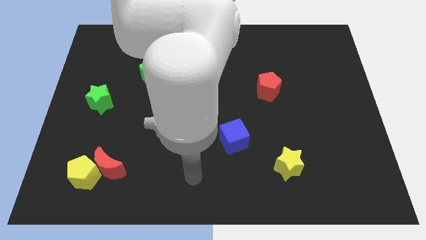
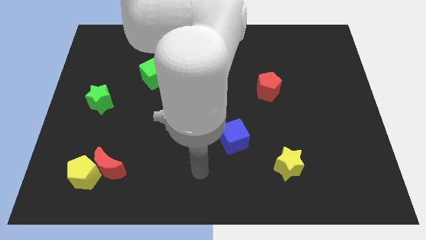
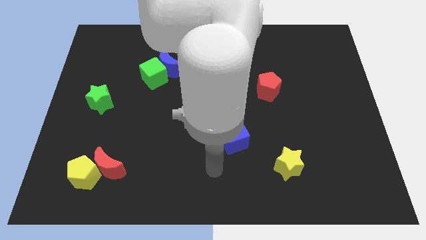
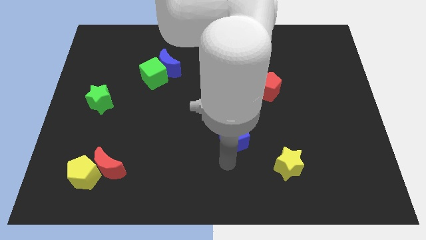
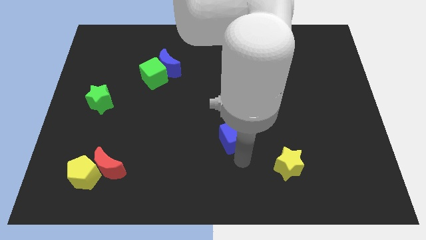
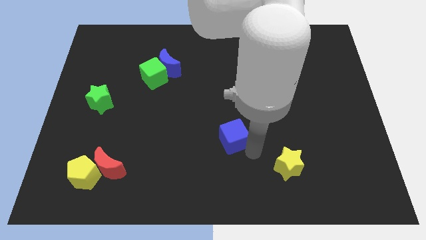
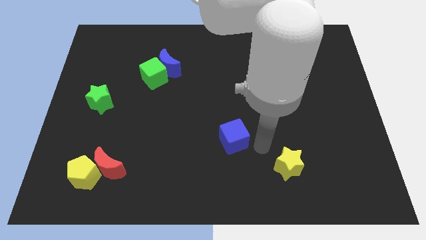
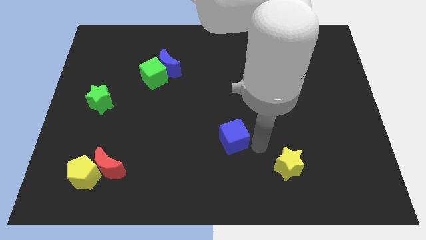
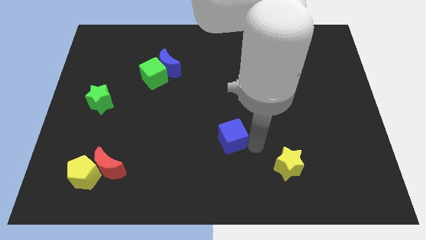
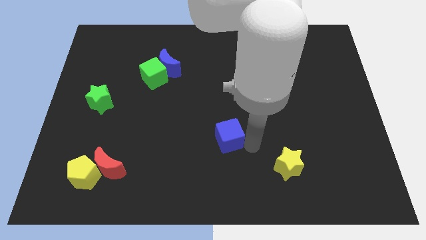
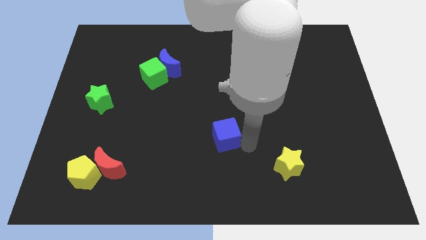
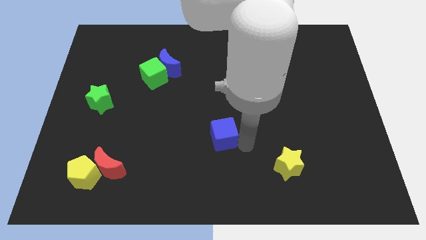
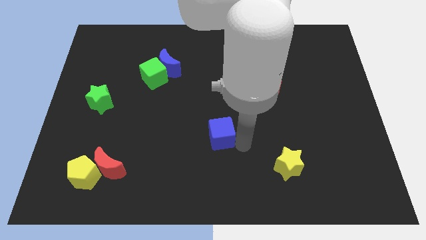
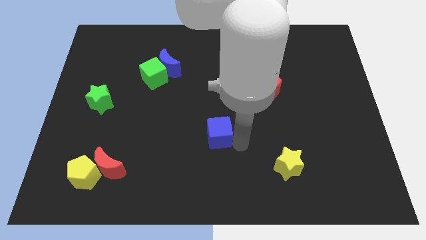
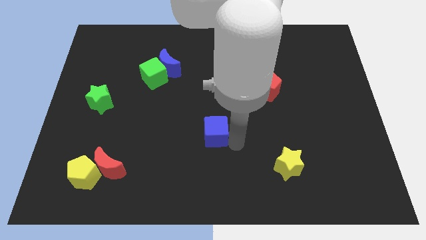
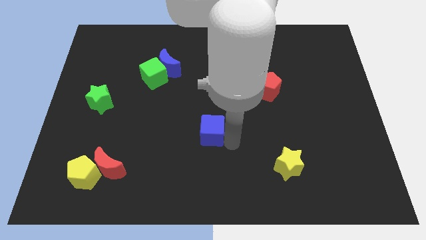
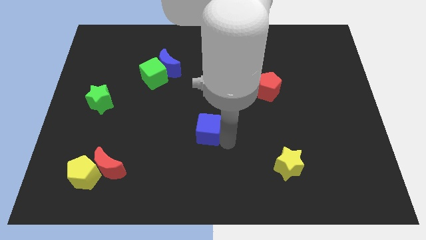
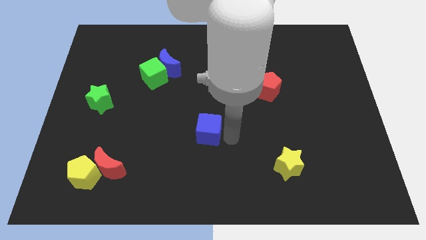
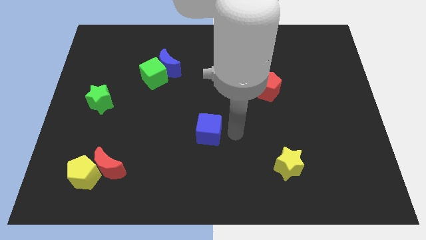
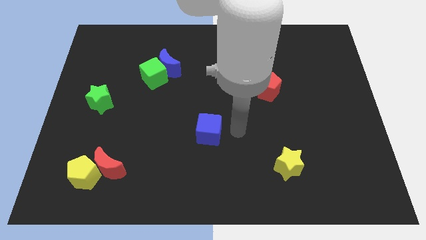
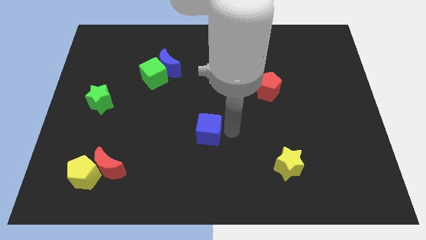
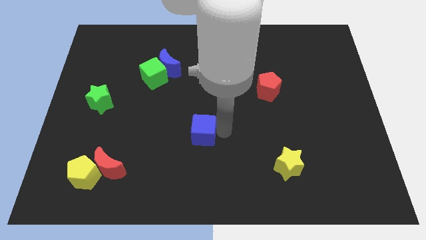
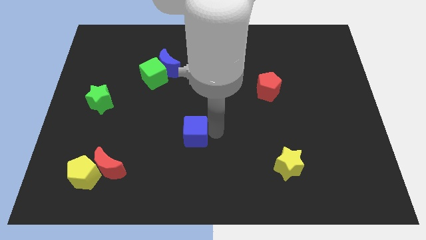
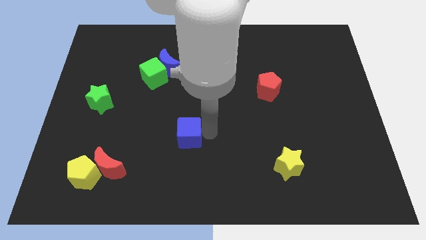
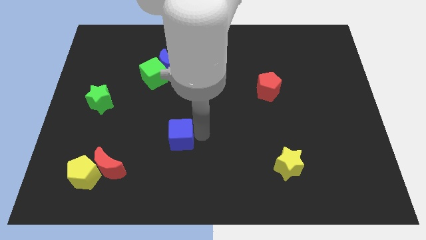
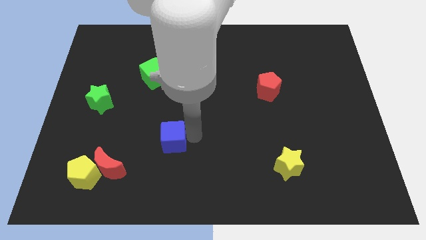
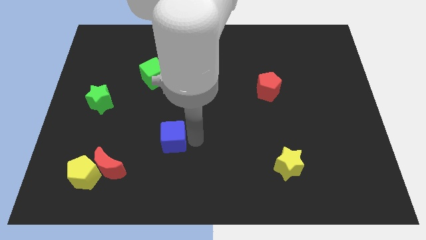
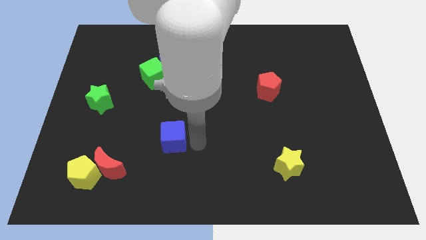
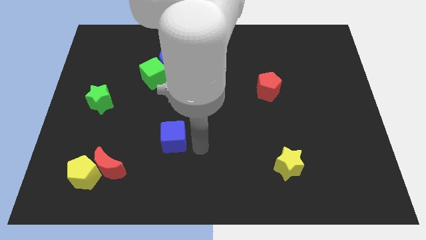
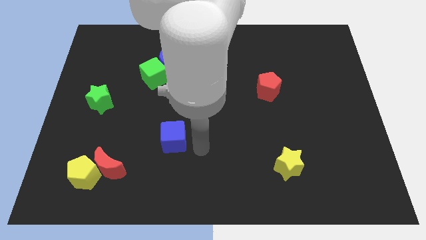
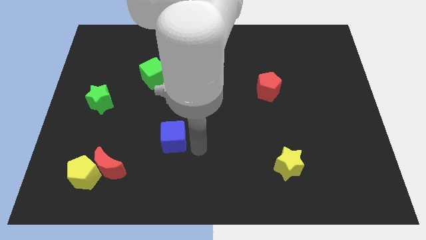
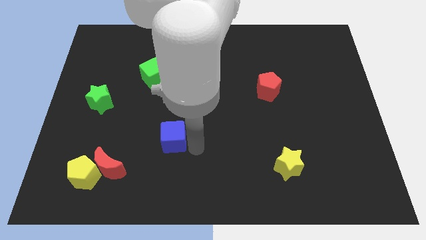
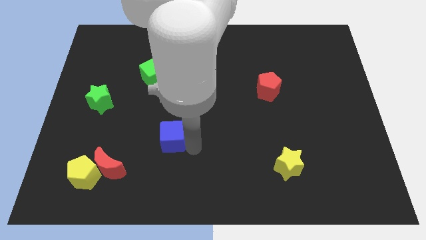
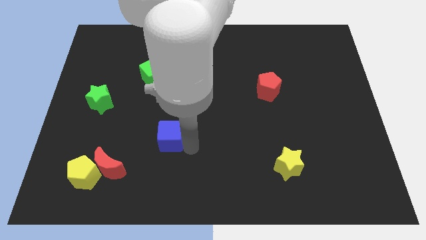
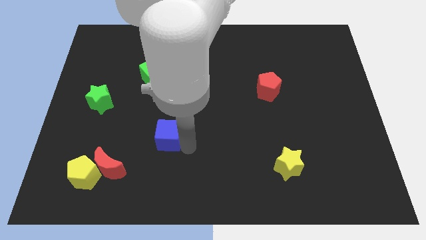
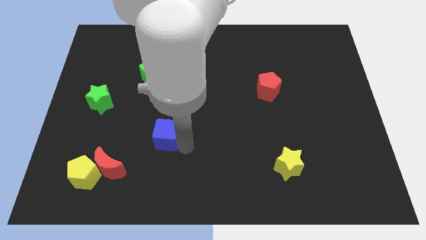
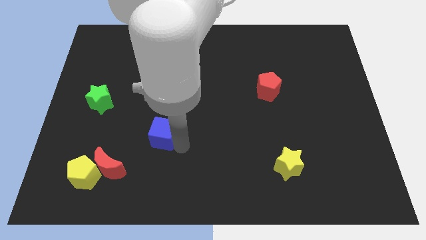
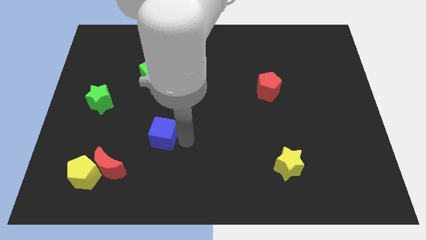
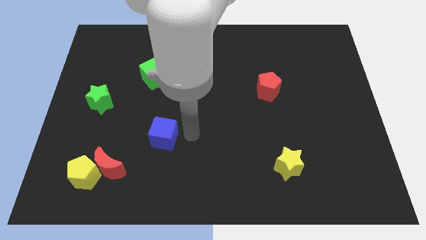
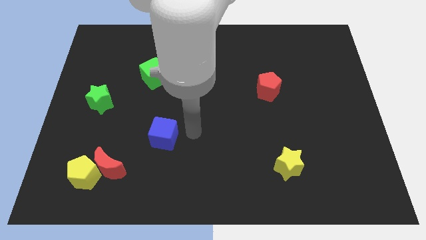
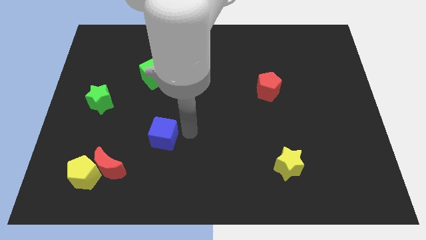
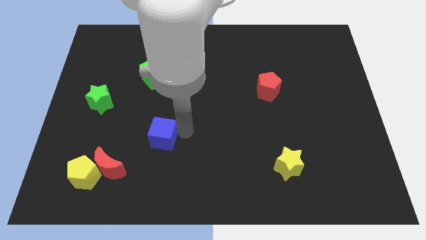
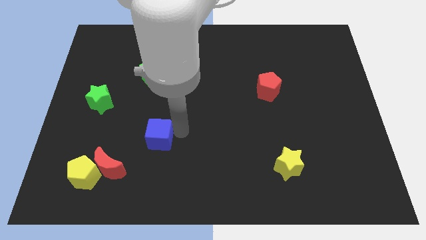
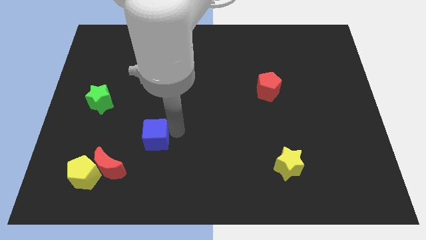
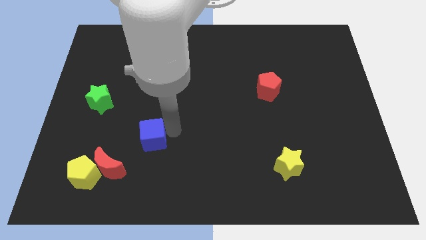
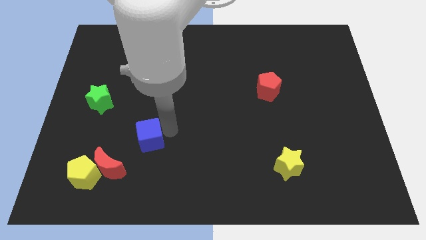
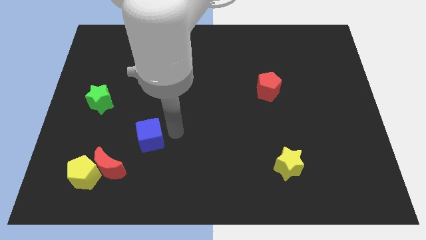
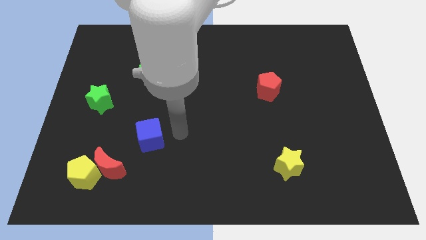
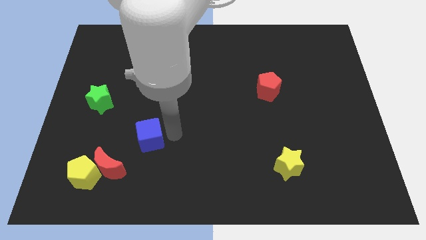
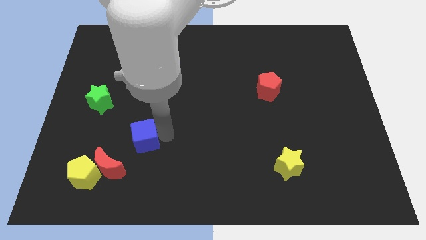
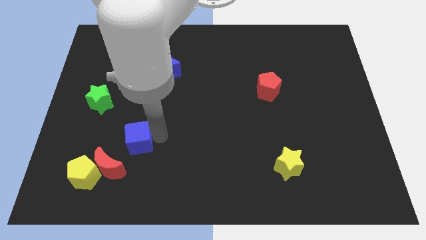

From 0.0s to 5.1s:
move the blue cube to the left

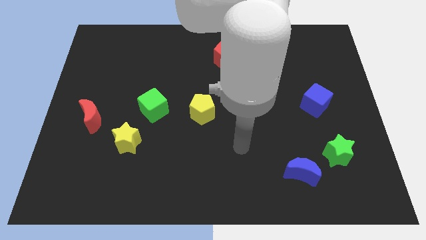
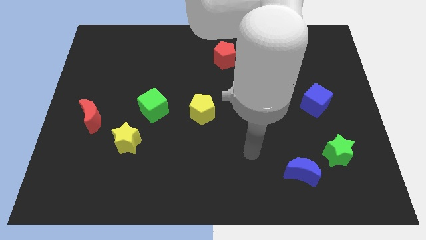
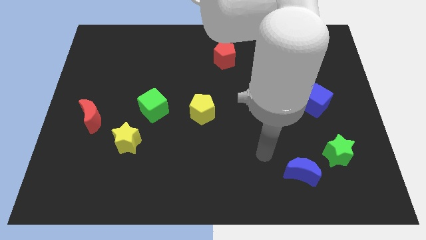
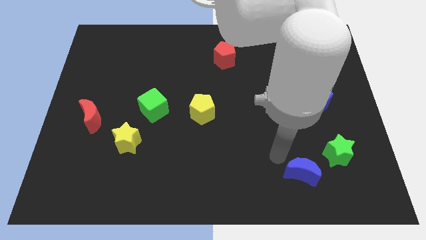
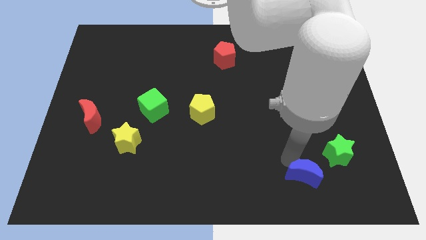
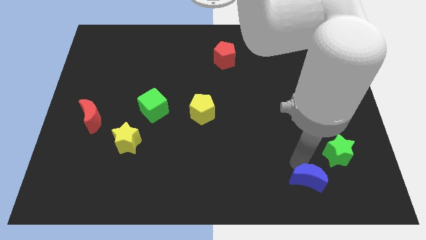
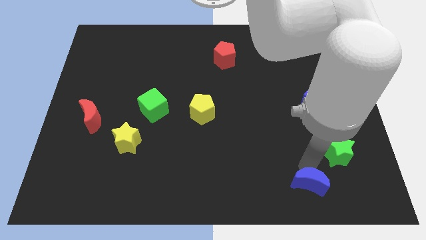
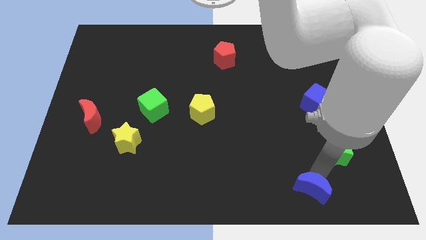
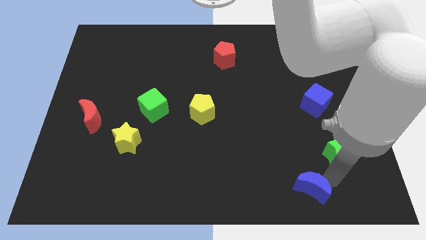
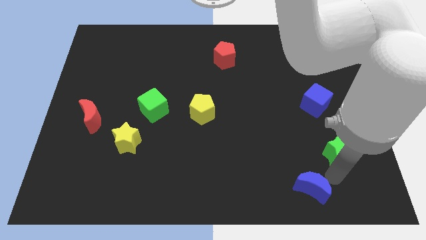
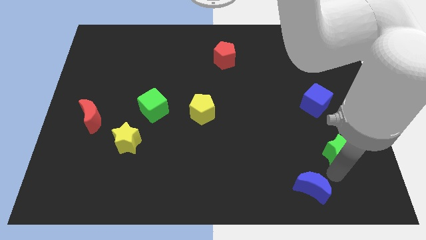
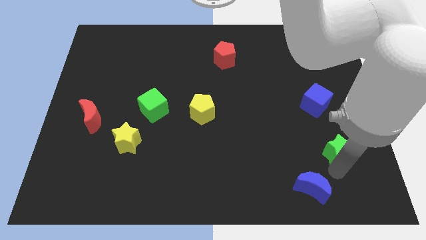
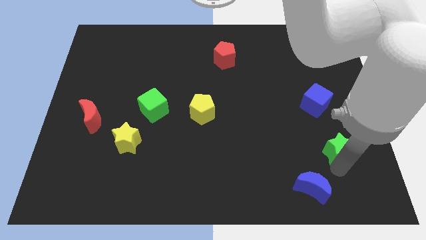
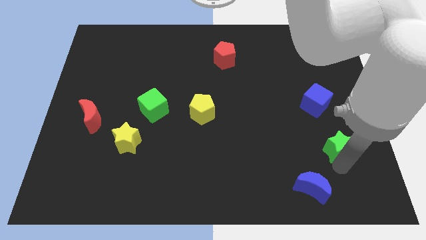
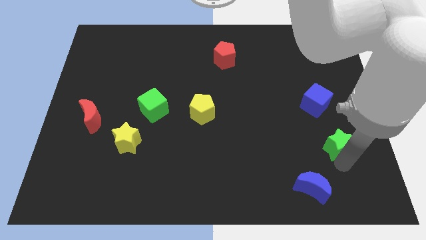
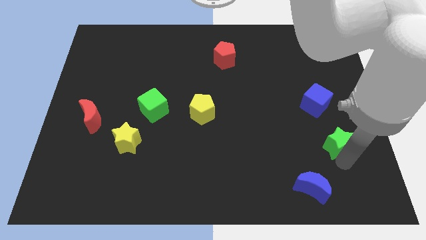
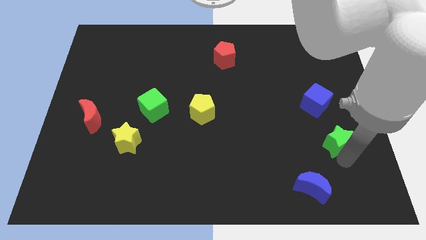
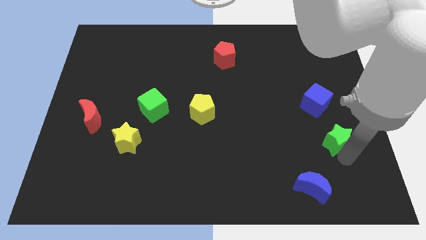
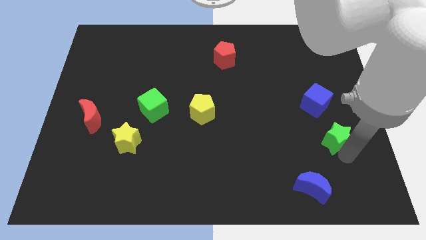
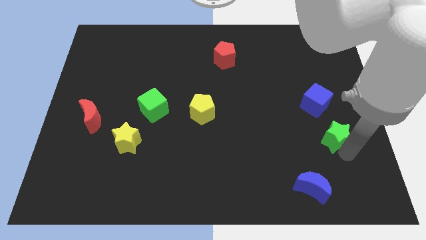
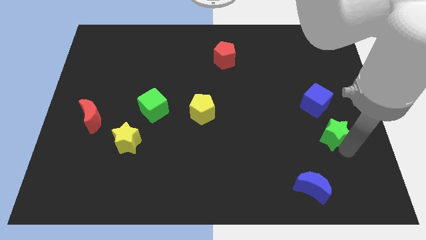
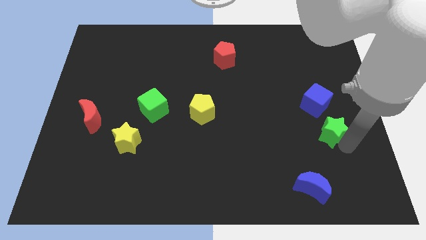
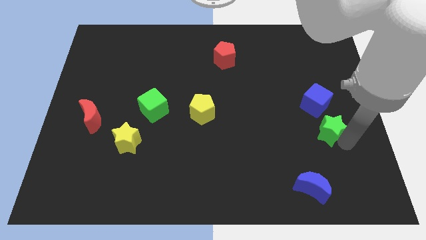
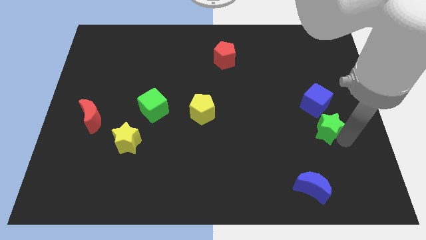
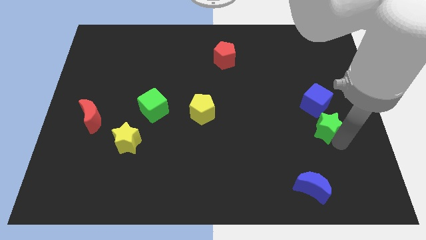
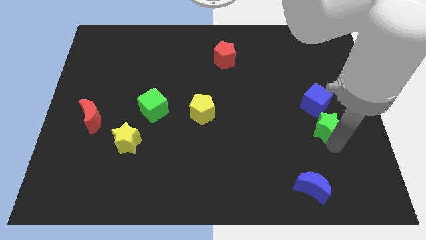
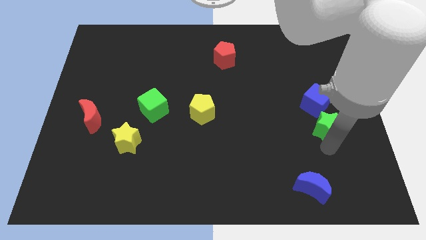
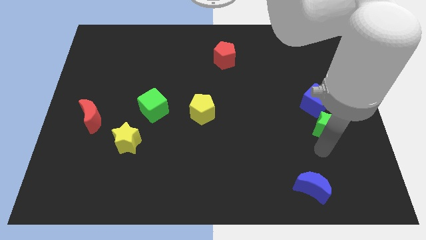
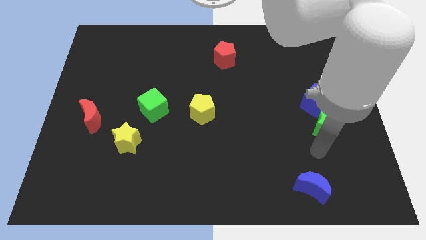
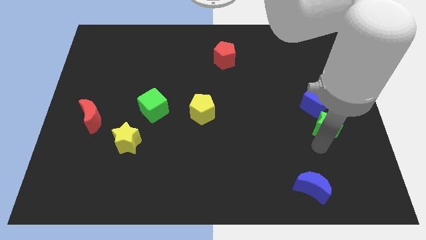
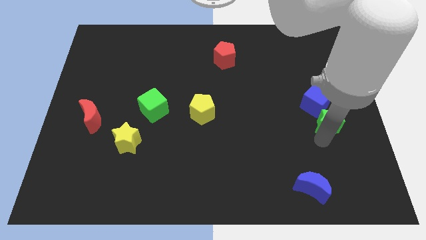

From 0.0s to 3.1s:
push the green star upwards slightly

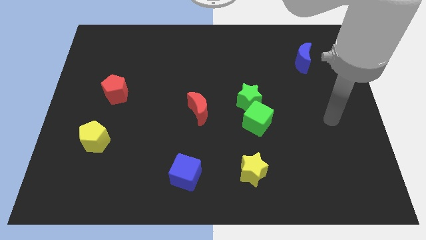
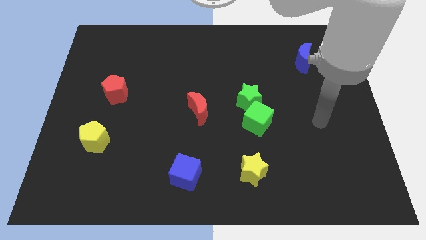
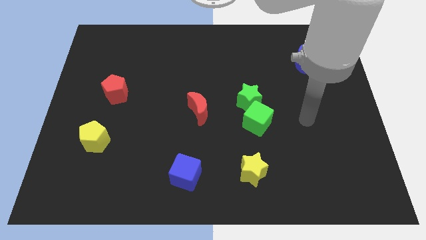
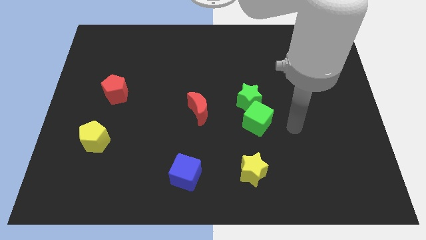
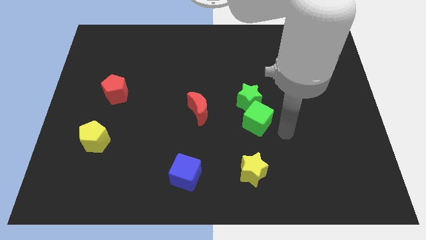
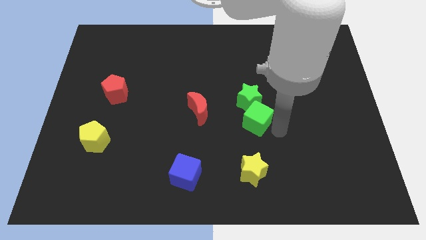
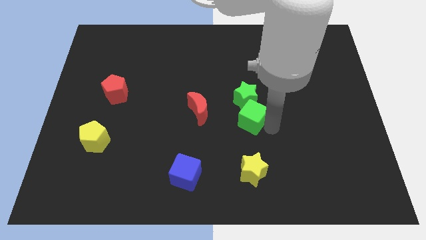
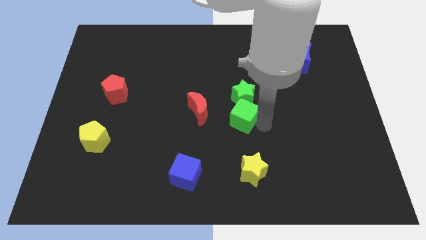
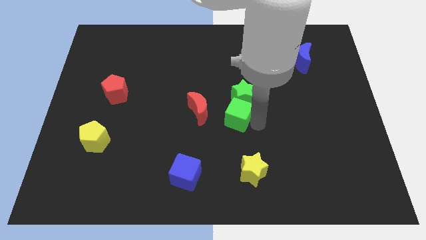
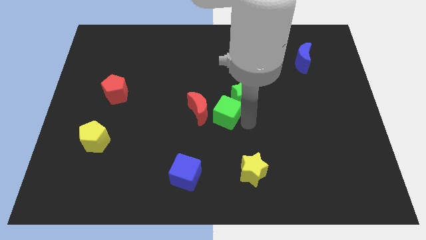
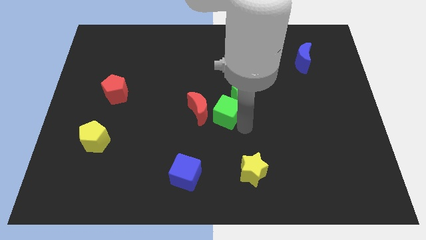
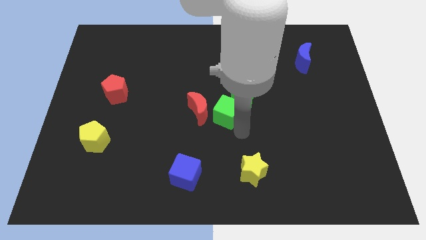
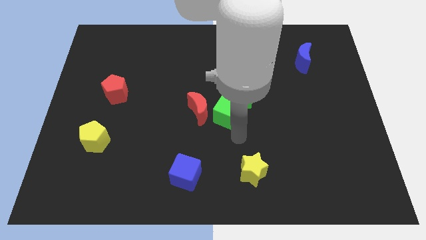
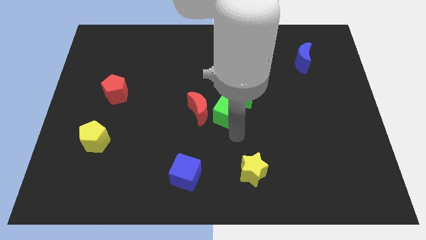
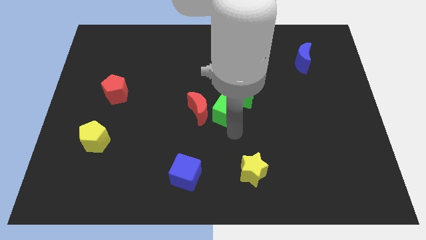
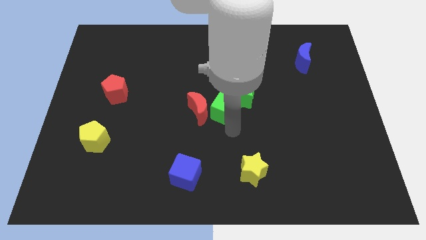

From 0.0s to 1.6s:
slightly move the green cube up and left
